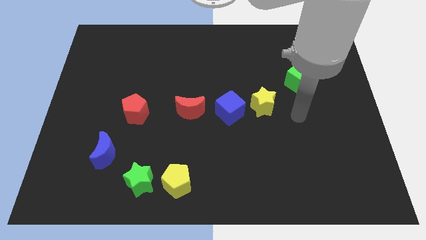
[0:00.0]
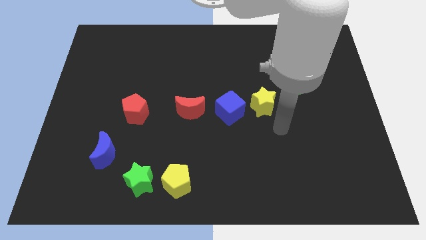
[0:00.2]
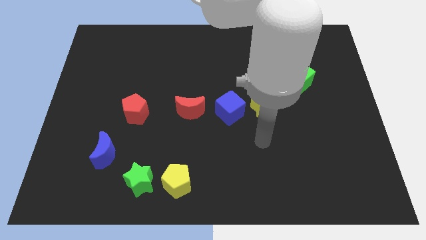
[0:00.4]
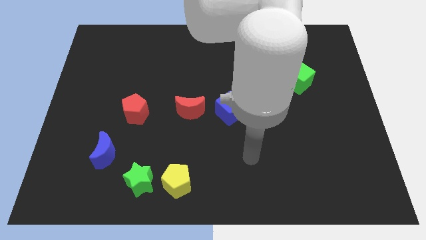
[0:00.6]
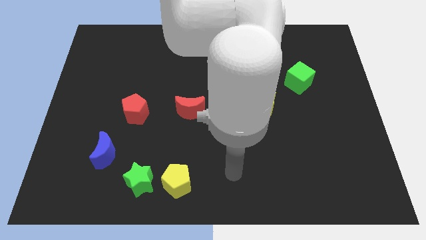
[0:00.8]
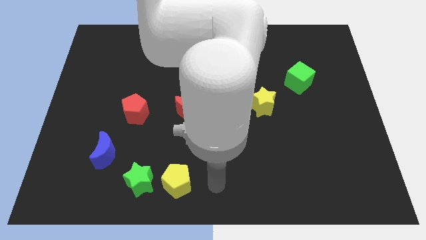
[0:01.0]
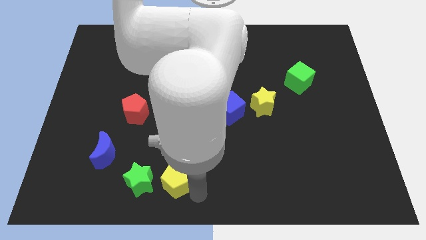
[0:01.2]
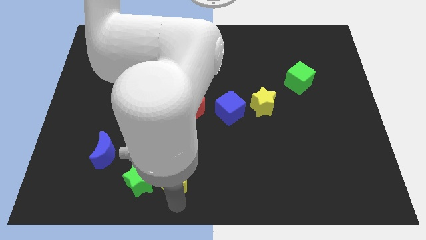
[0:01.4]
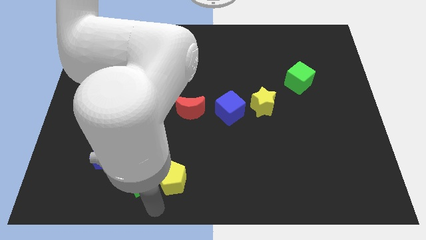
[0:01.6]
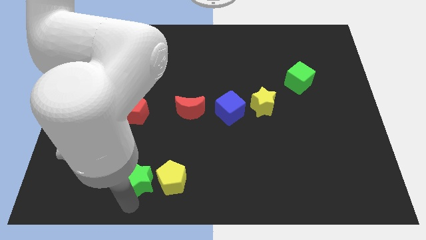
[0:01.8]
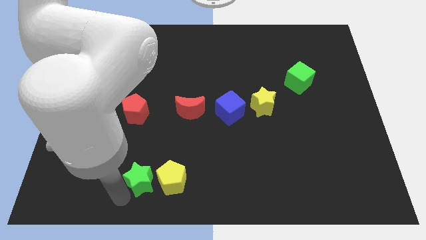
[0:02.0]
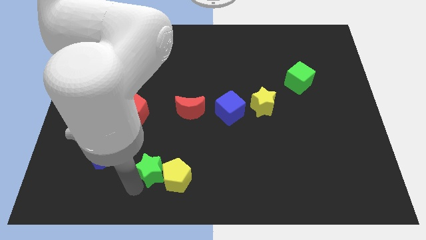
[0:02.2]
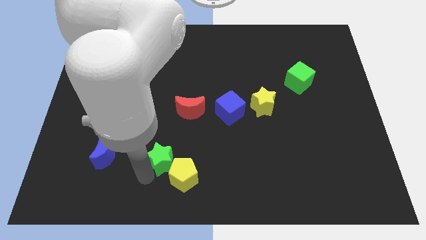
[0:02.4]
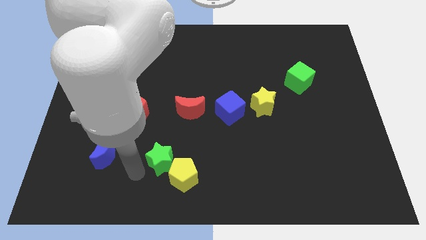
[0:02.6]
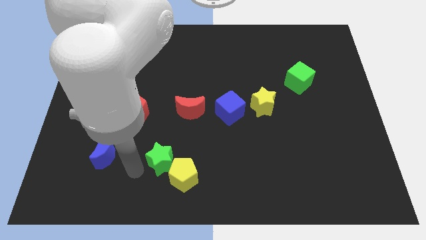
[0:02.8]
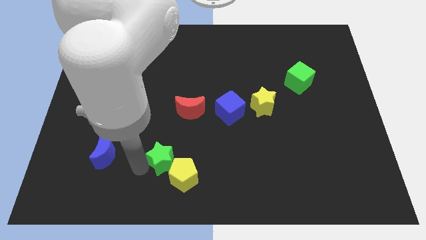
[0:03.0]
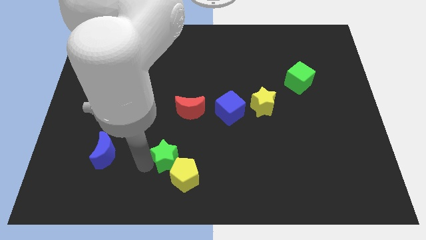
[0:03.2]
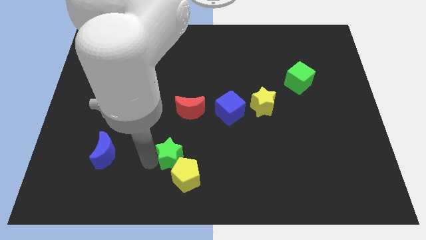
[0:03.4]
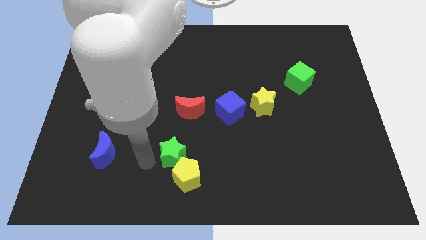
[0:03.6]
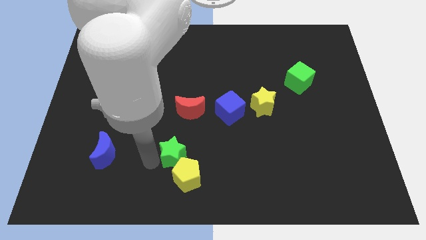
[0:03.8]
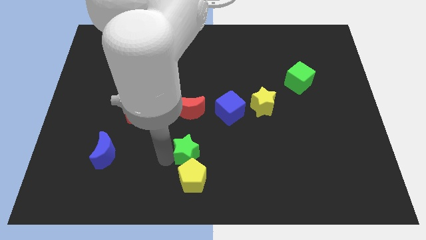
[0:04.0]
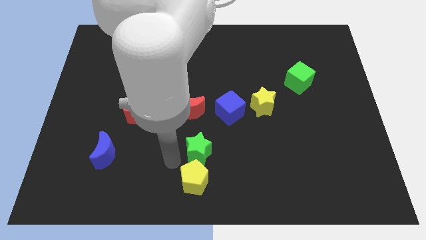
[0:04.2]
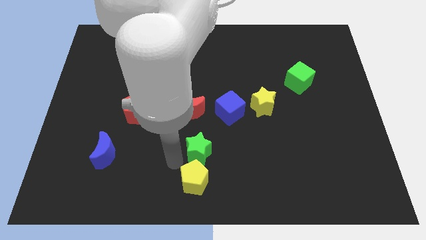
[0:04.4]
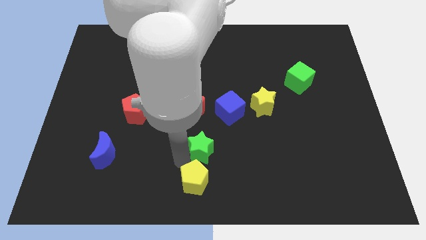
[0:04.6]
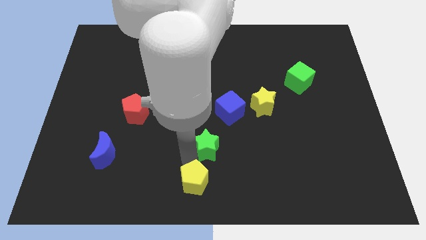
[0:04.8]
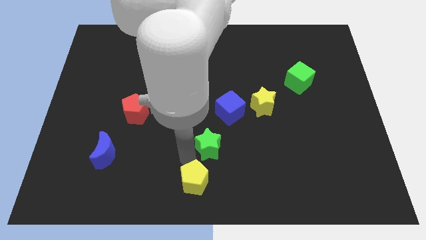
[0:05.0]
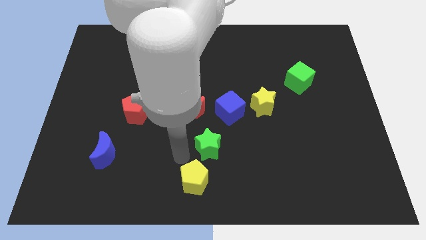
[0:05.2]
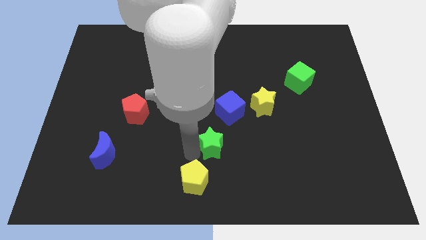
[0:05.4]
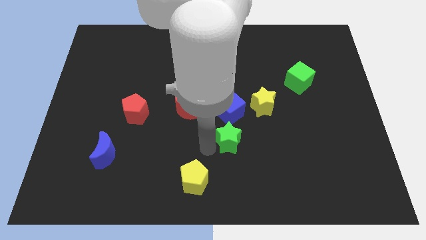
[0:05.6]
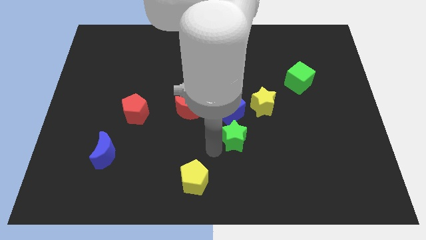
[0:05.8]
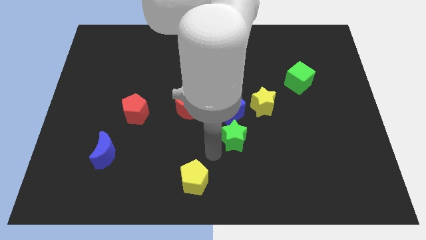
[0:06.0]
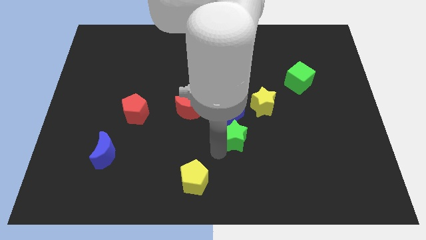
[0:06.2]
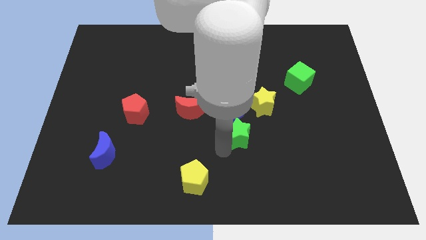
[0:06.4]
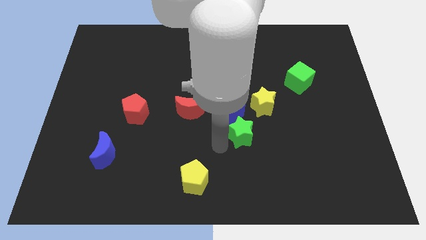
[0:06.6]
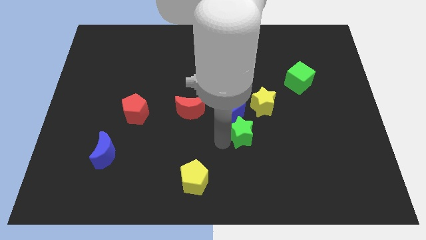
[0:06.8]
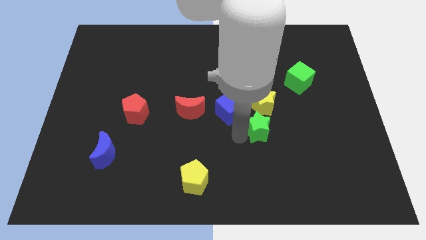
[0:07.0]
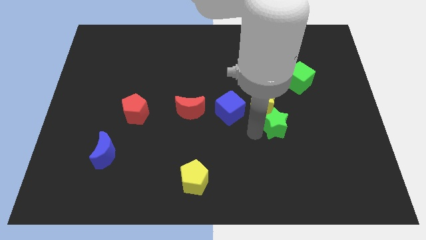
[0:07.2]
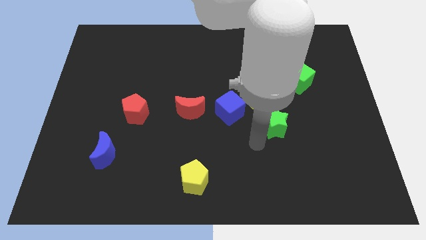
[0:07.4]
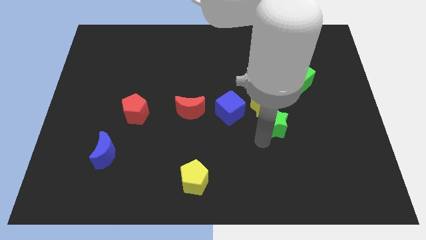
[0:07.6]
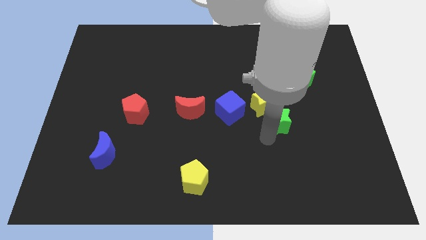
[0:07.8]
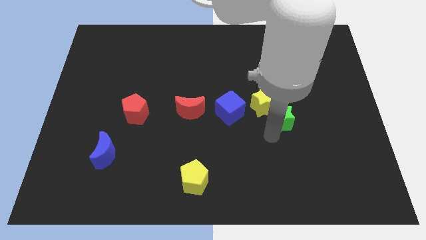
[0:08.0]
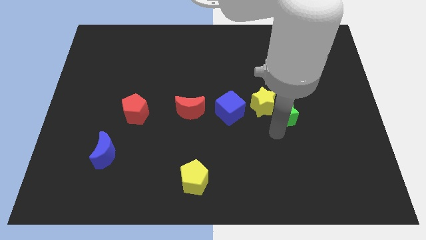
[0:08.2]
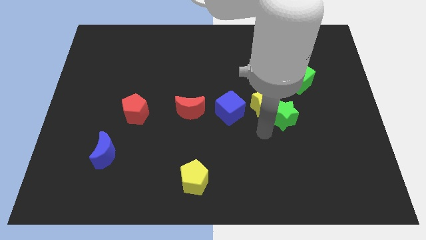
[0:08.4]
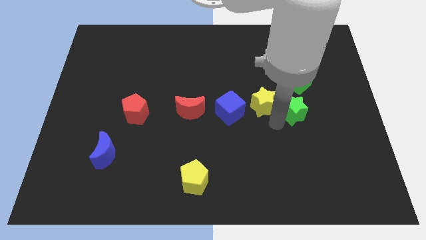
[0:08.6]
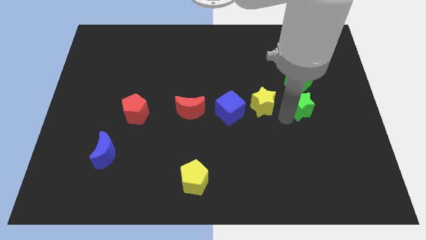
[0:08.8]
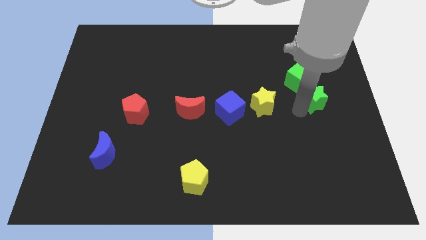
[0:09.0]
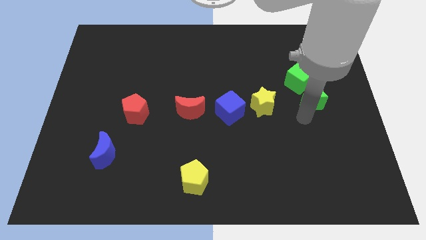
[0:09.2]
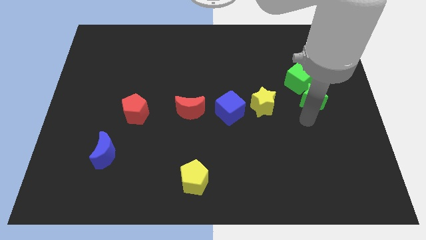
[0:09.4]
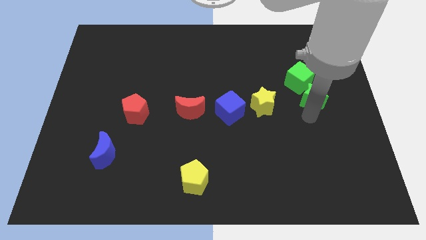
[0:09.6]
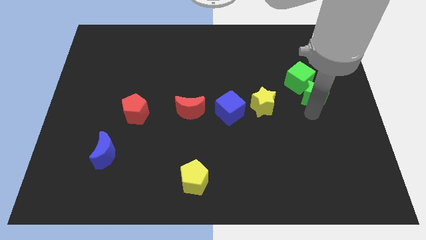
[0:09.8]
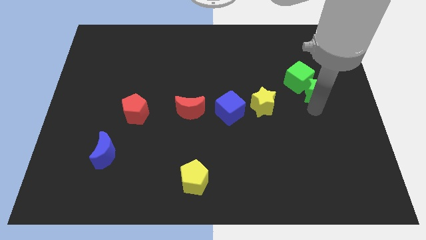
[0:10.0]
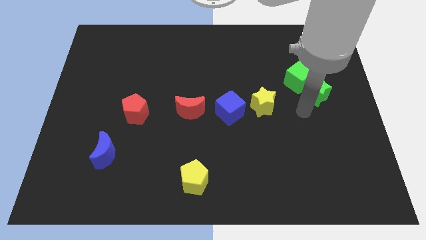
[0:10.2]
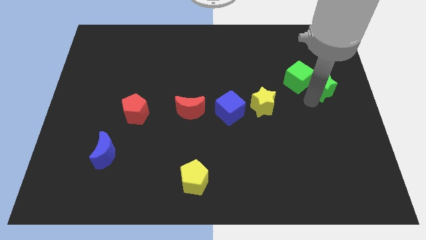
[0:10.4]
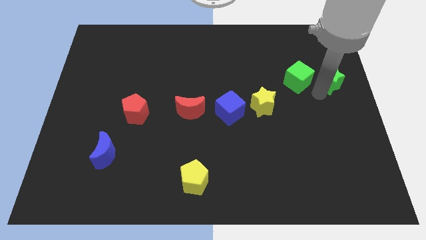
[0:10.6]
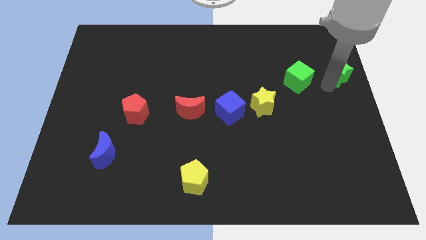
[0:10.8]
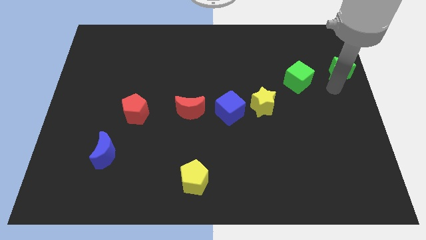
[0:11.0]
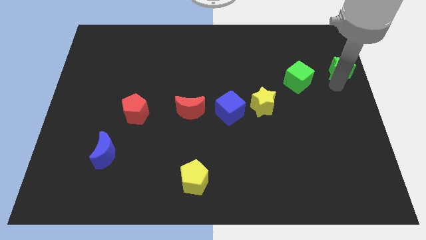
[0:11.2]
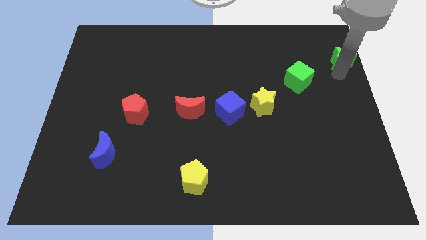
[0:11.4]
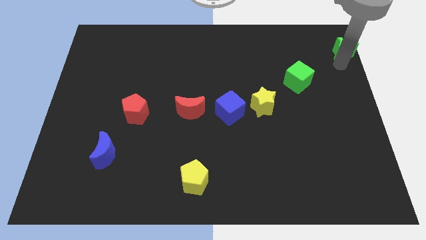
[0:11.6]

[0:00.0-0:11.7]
push the green star to the top right corner

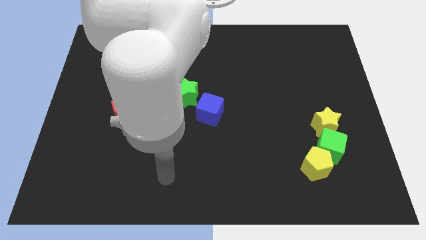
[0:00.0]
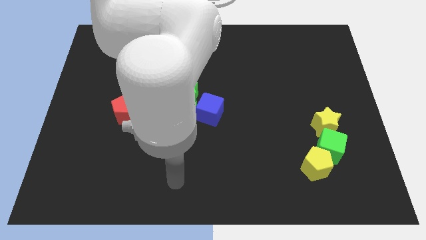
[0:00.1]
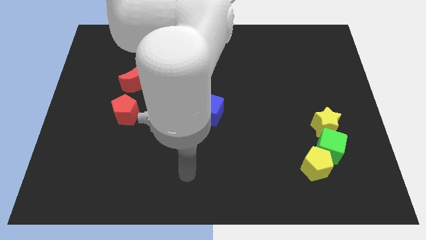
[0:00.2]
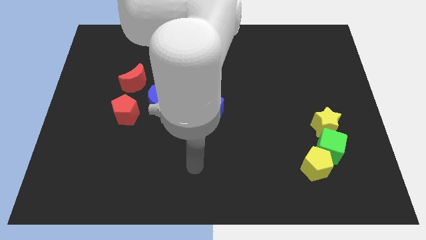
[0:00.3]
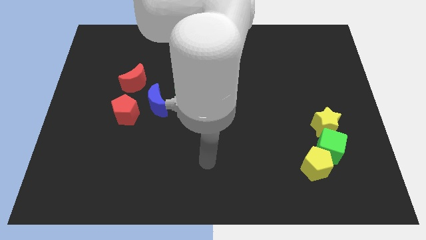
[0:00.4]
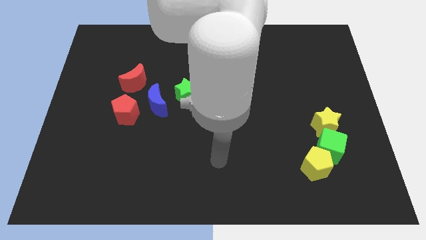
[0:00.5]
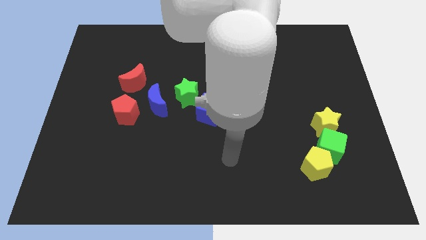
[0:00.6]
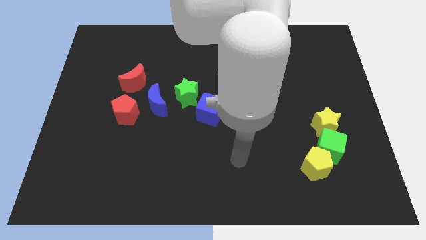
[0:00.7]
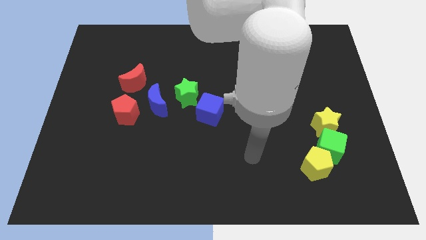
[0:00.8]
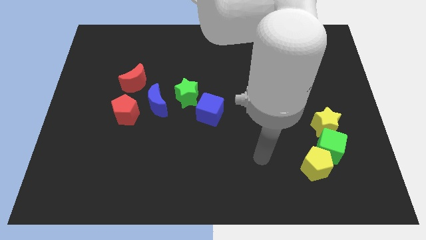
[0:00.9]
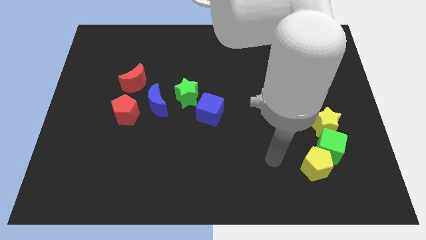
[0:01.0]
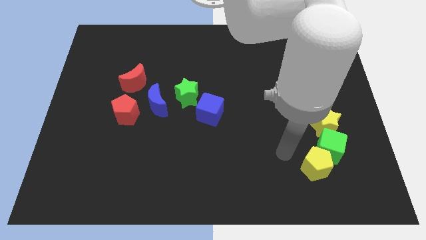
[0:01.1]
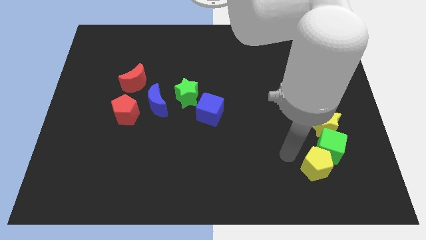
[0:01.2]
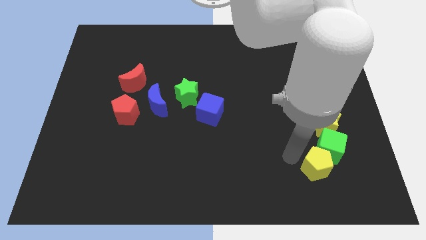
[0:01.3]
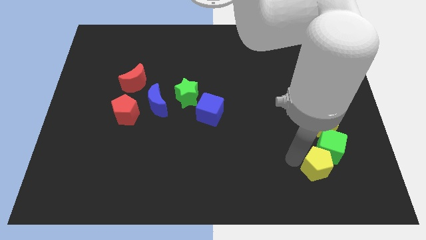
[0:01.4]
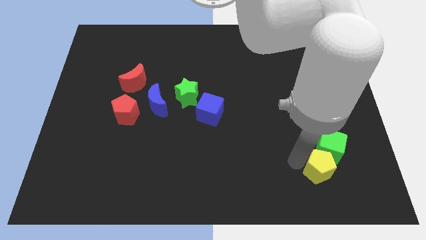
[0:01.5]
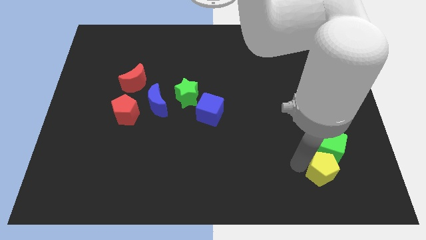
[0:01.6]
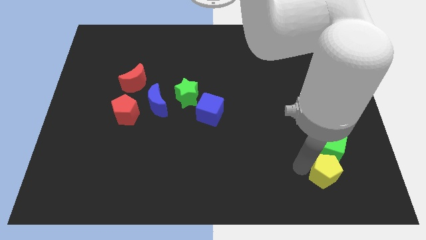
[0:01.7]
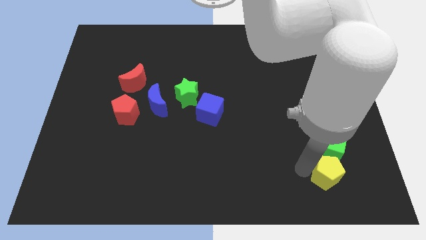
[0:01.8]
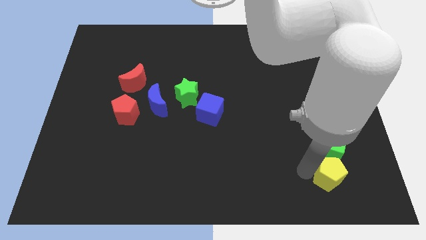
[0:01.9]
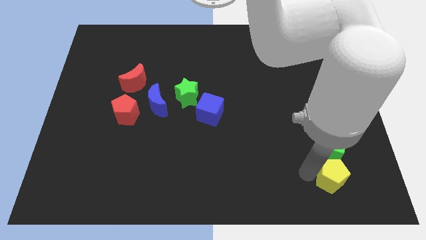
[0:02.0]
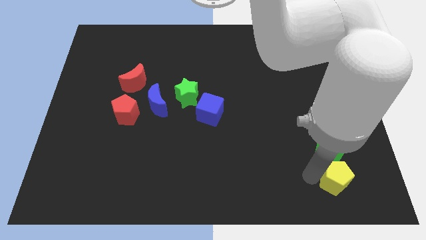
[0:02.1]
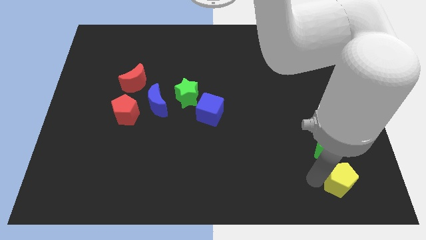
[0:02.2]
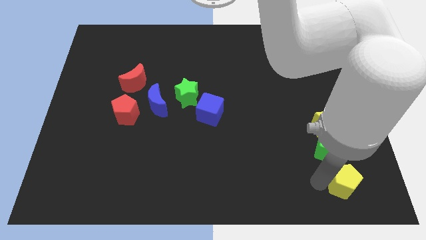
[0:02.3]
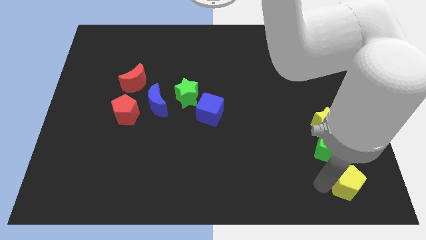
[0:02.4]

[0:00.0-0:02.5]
push the yellow pentagon to the lower right corner
